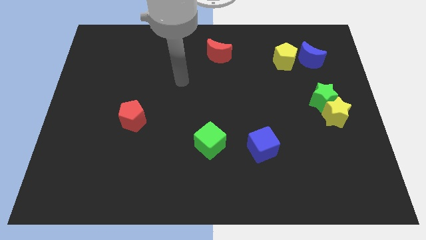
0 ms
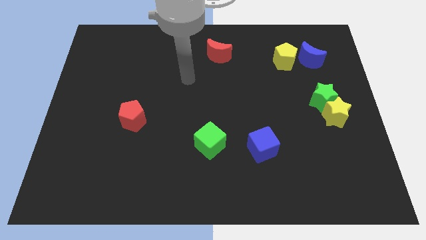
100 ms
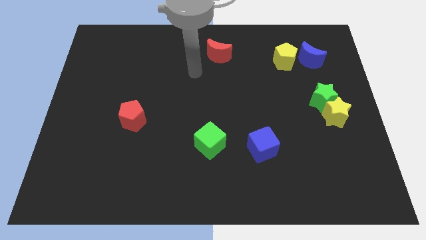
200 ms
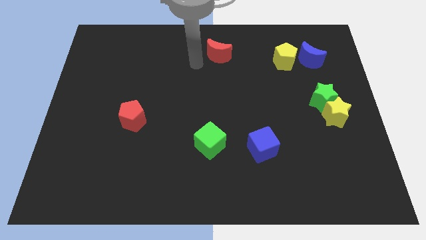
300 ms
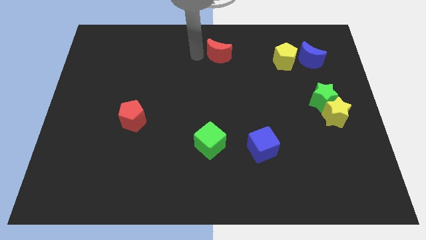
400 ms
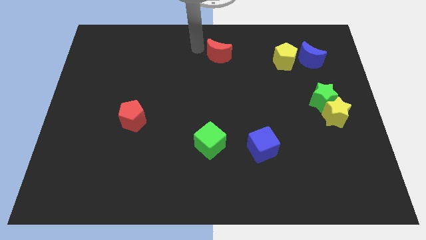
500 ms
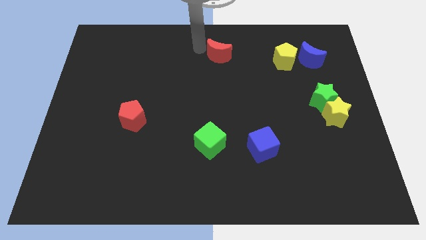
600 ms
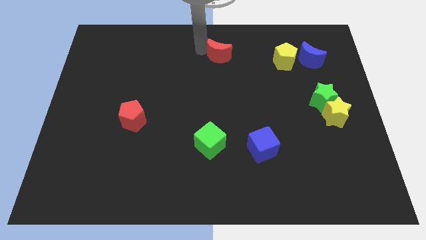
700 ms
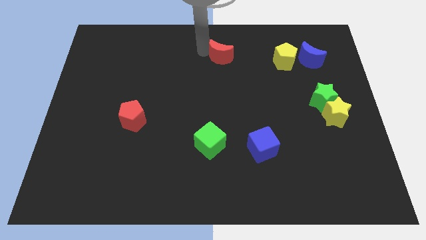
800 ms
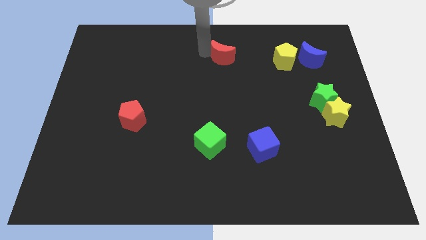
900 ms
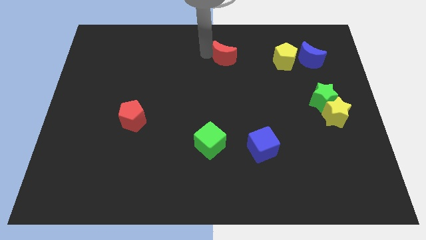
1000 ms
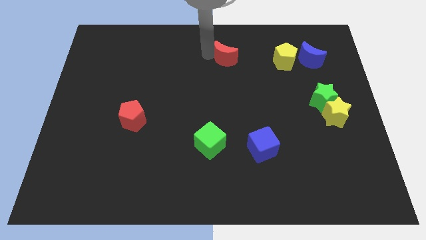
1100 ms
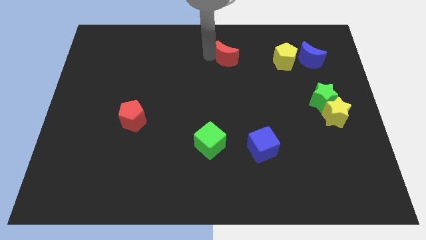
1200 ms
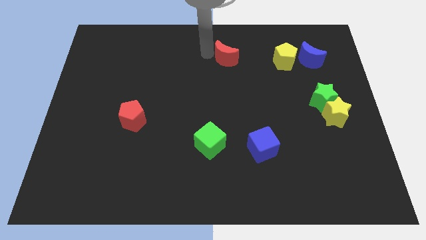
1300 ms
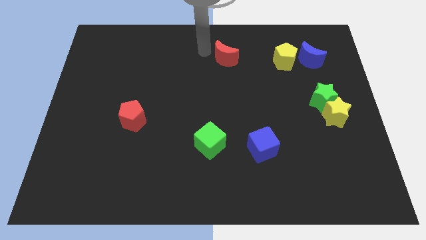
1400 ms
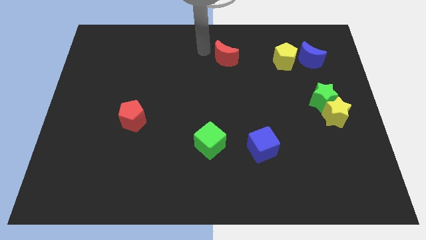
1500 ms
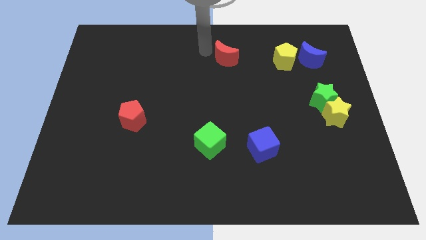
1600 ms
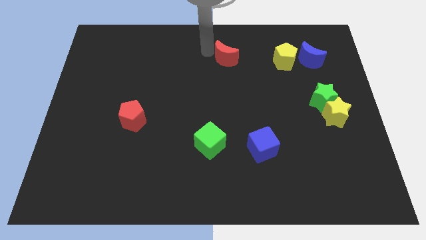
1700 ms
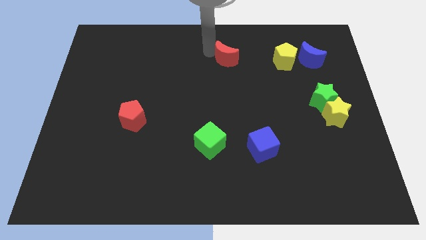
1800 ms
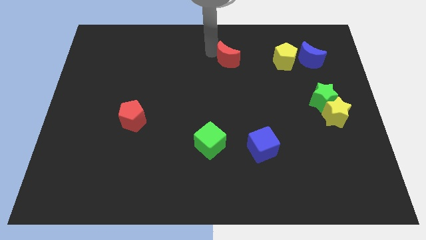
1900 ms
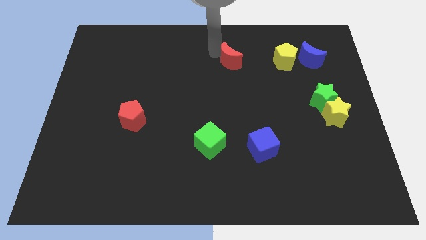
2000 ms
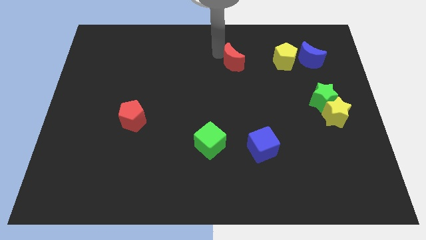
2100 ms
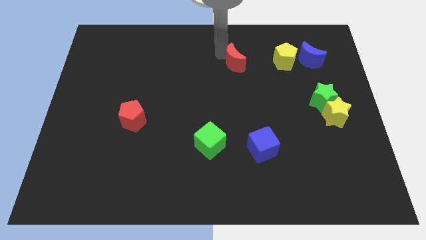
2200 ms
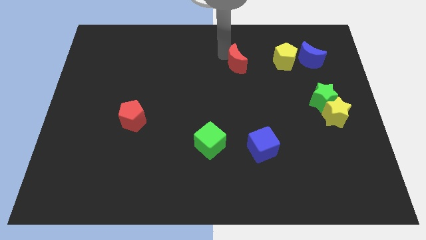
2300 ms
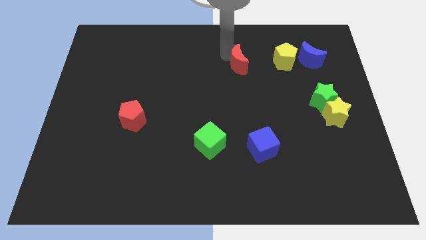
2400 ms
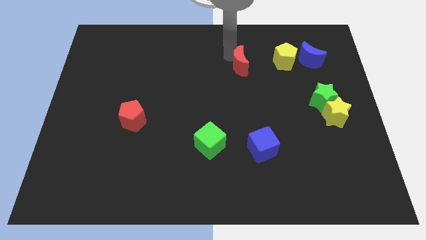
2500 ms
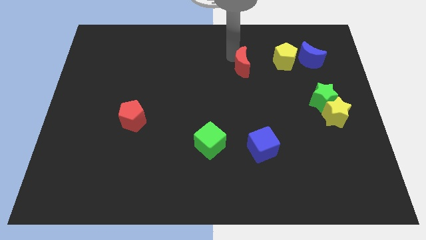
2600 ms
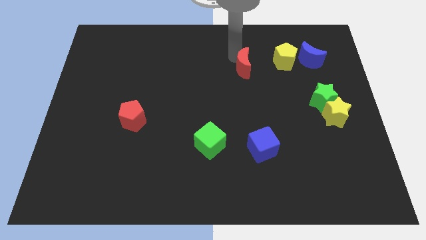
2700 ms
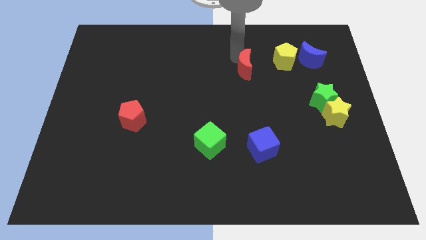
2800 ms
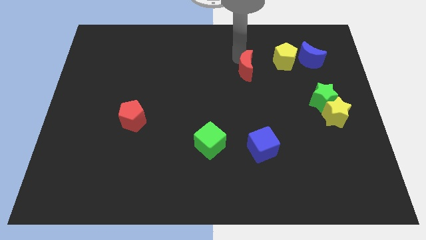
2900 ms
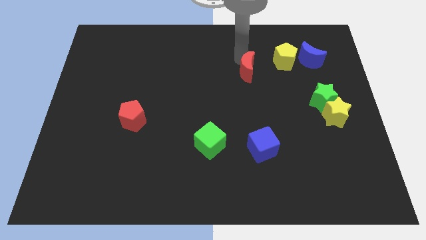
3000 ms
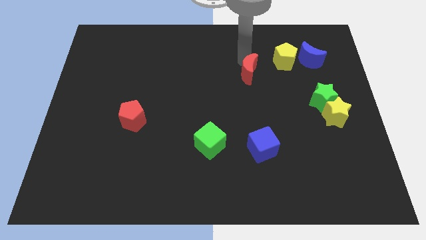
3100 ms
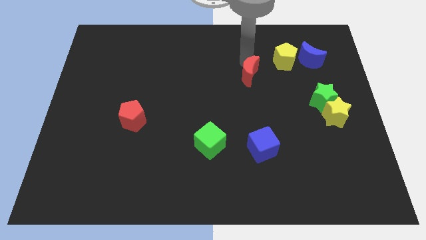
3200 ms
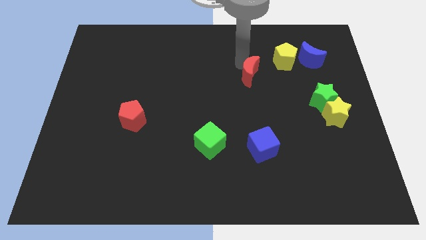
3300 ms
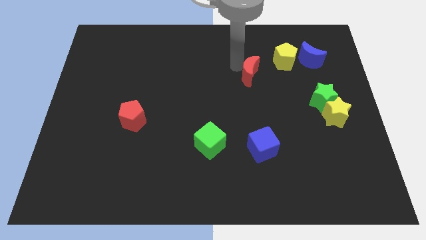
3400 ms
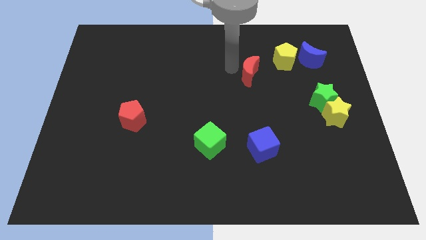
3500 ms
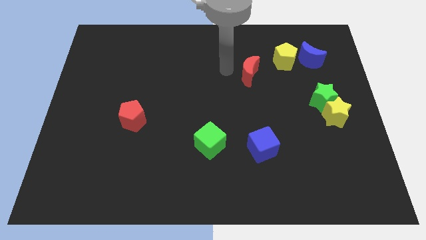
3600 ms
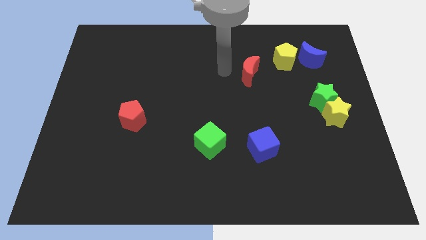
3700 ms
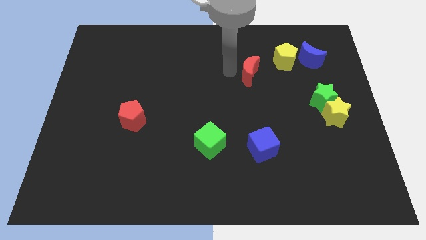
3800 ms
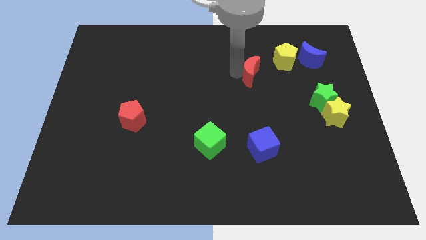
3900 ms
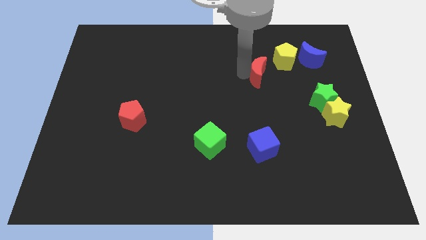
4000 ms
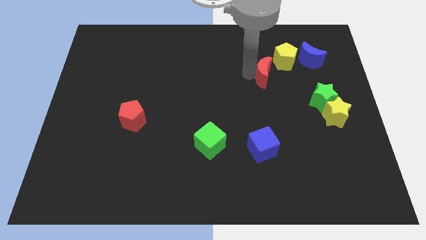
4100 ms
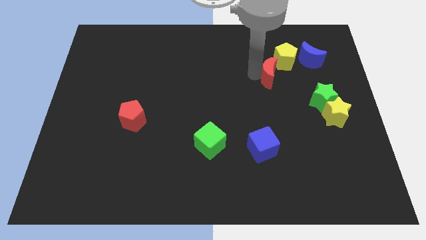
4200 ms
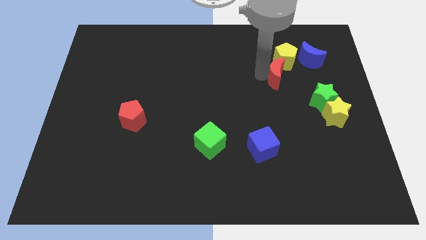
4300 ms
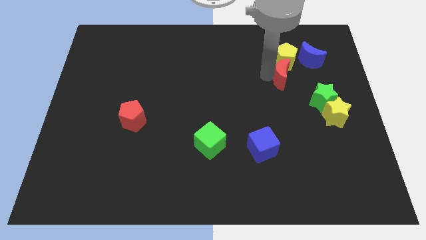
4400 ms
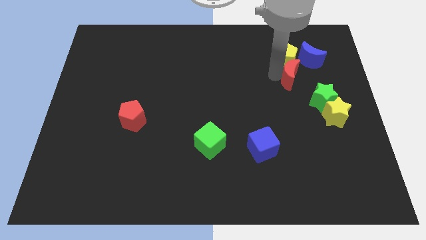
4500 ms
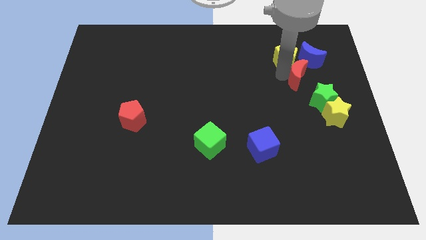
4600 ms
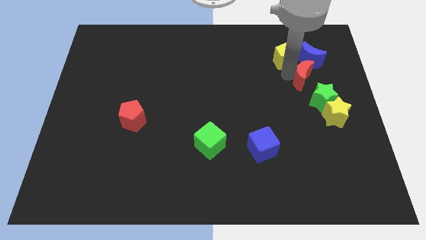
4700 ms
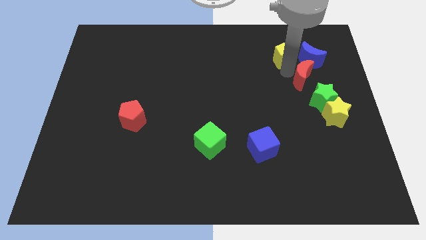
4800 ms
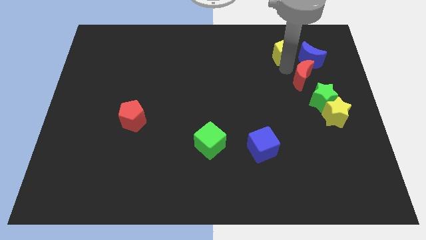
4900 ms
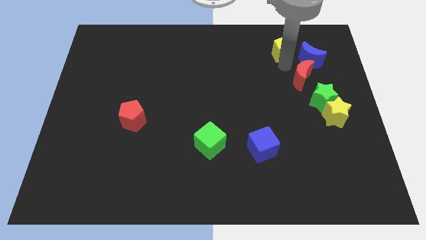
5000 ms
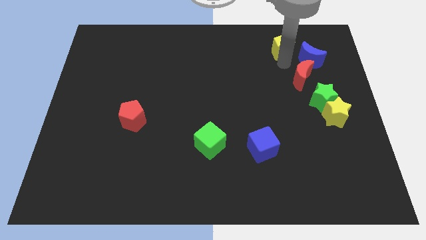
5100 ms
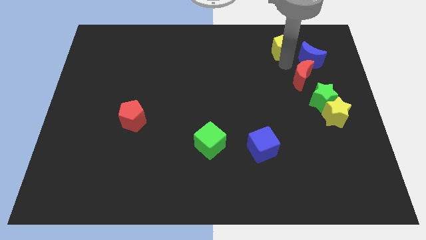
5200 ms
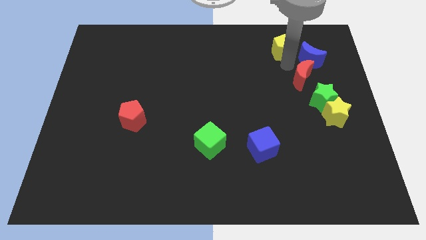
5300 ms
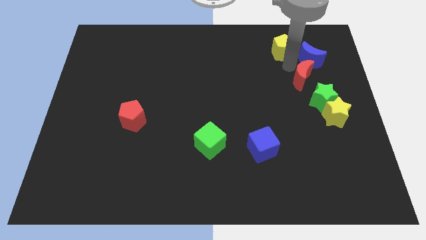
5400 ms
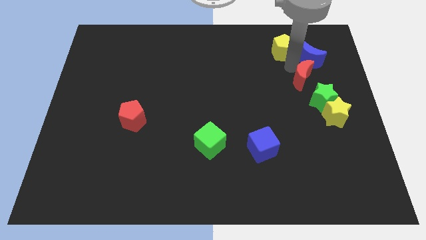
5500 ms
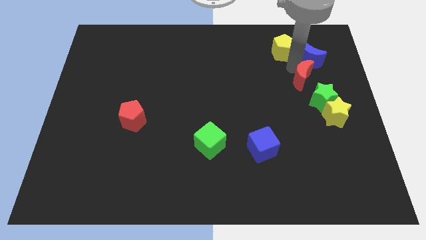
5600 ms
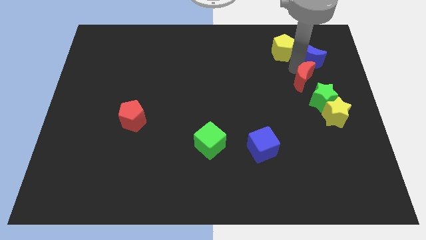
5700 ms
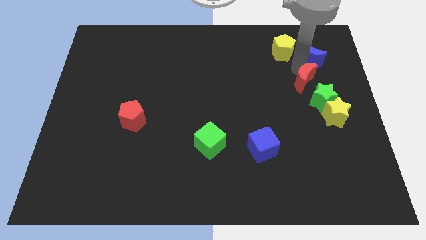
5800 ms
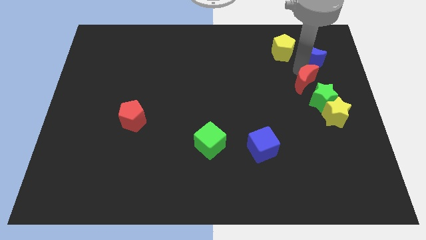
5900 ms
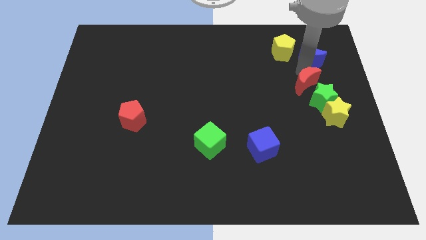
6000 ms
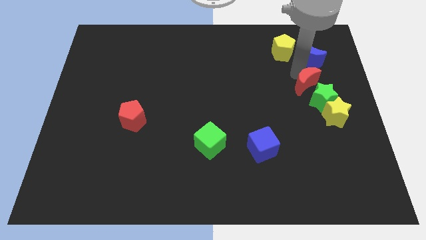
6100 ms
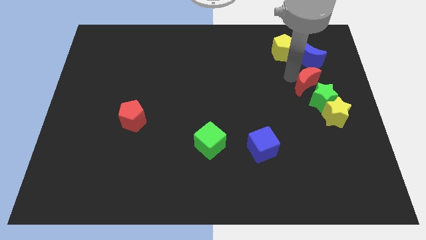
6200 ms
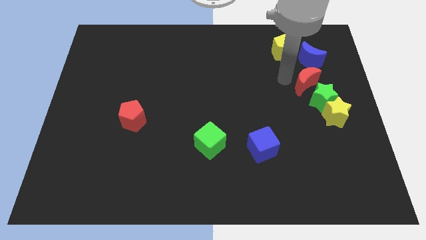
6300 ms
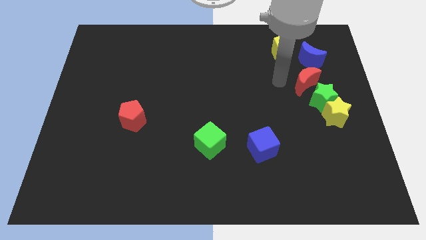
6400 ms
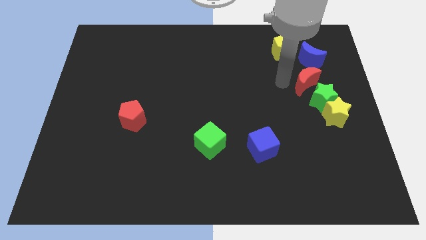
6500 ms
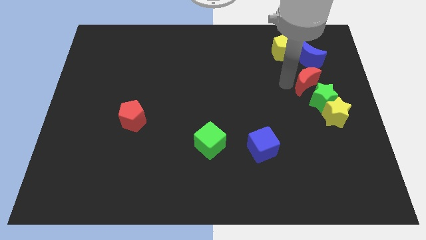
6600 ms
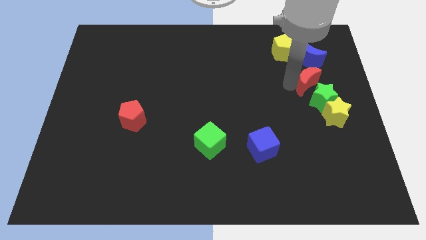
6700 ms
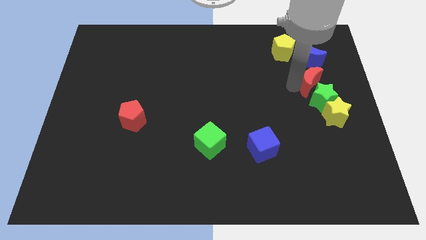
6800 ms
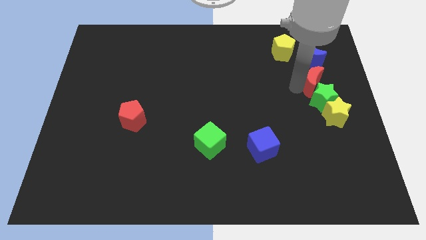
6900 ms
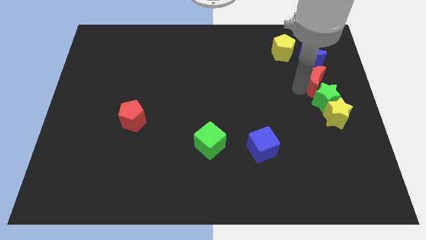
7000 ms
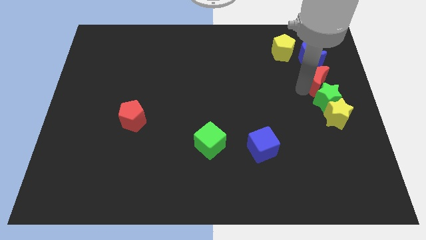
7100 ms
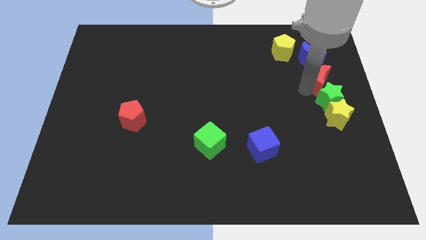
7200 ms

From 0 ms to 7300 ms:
put the red moon to the right side of the board

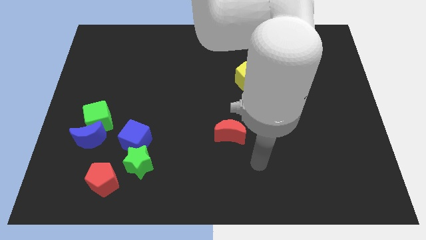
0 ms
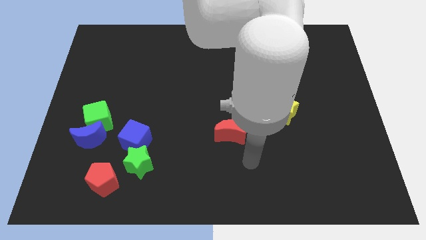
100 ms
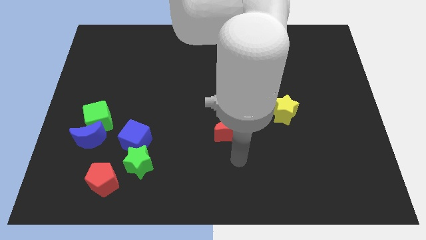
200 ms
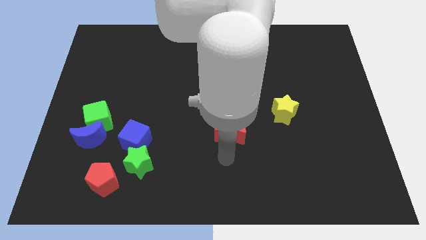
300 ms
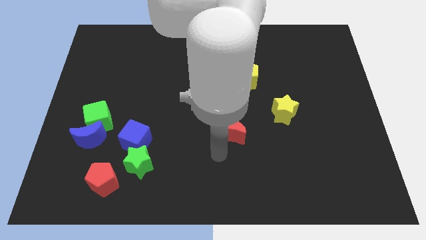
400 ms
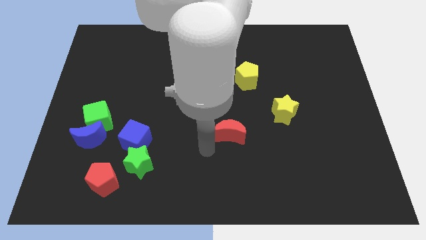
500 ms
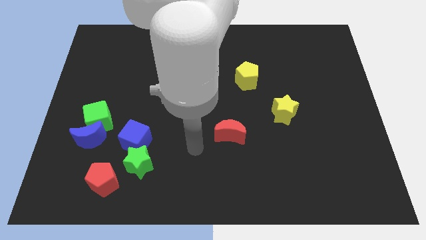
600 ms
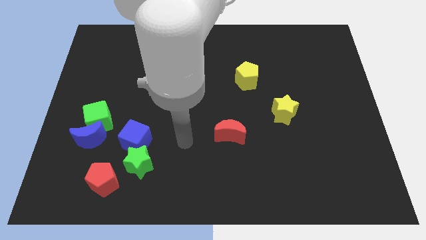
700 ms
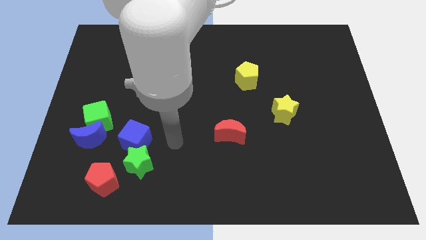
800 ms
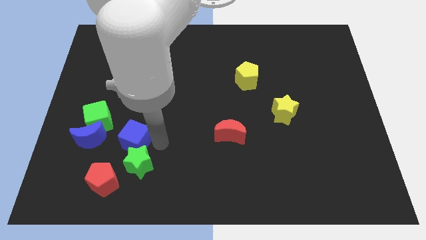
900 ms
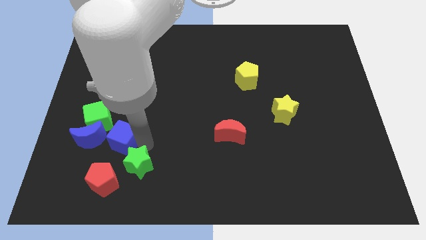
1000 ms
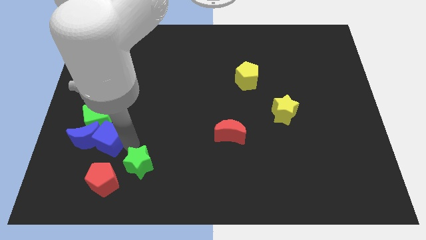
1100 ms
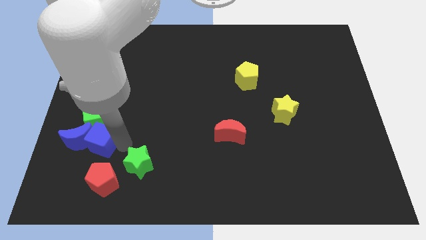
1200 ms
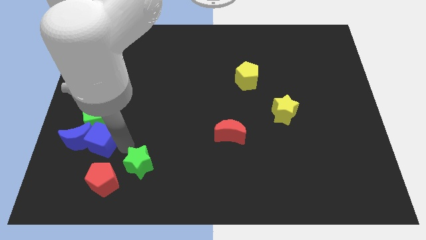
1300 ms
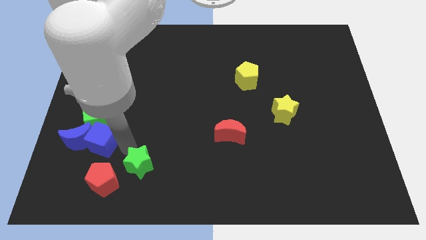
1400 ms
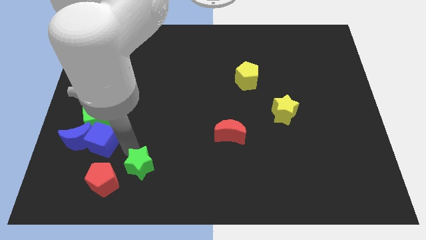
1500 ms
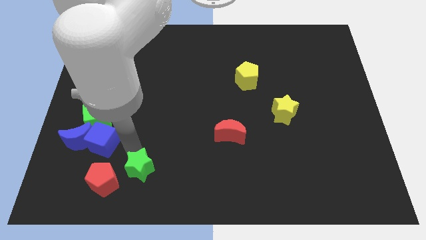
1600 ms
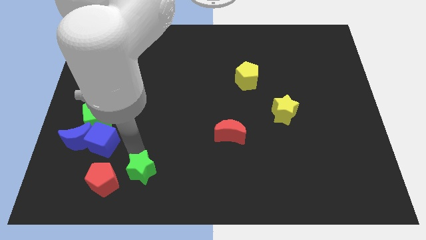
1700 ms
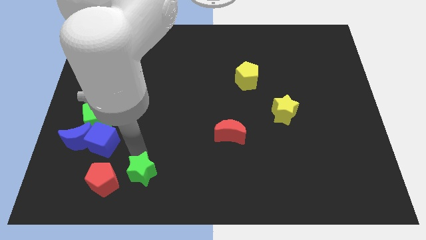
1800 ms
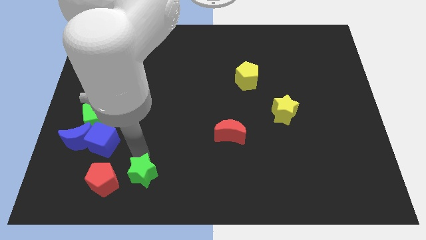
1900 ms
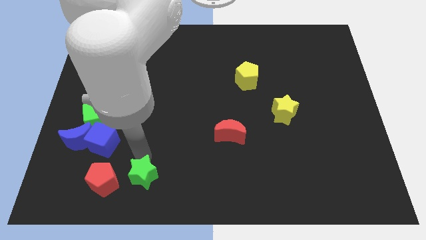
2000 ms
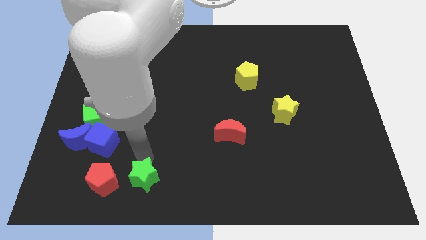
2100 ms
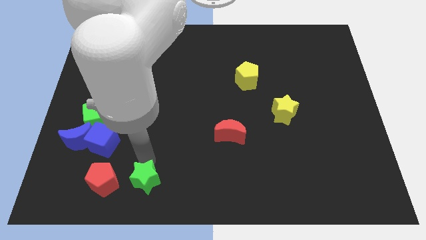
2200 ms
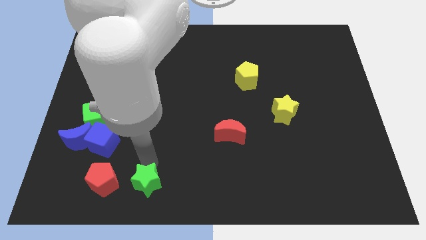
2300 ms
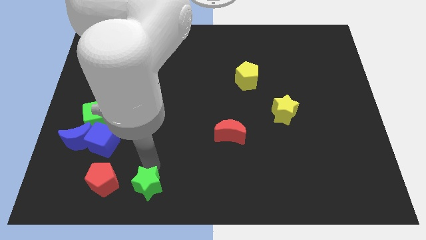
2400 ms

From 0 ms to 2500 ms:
put the green star to the bottom side
